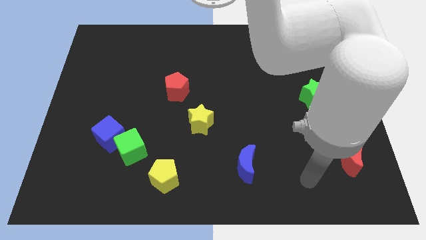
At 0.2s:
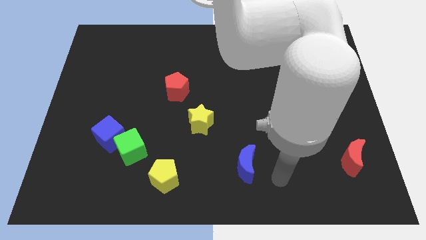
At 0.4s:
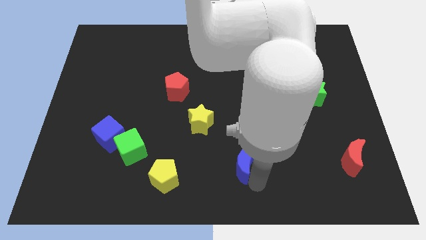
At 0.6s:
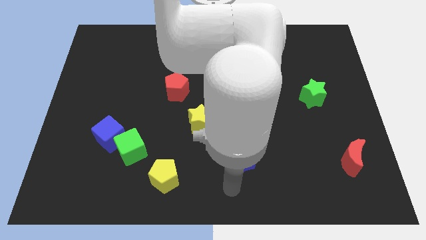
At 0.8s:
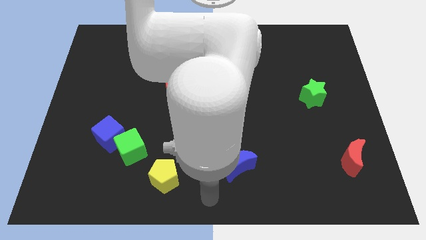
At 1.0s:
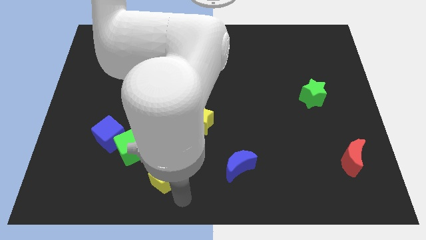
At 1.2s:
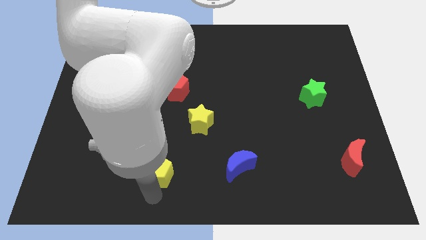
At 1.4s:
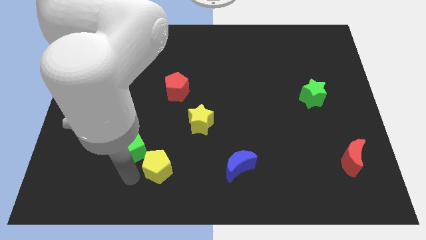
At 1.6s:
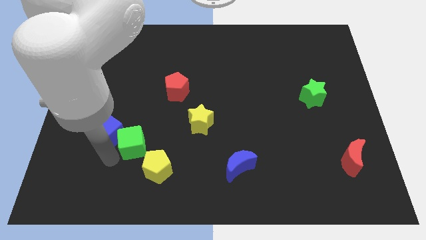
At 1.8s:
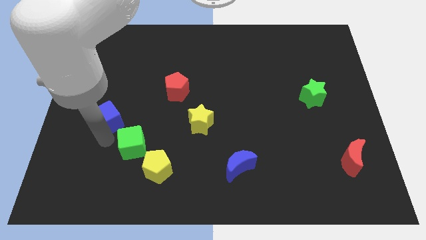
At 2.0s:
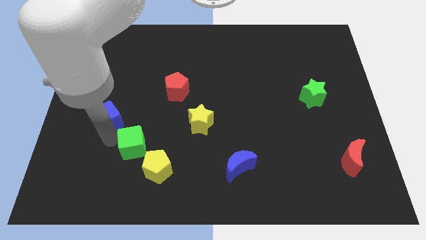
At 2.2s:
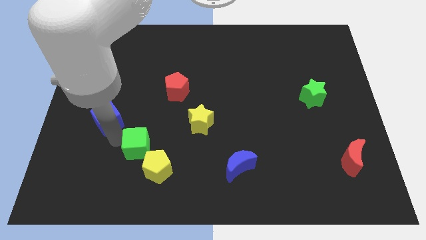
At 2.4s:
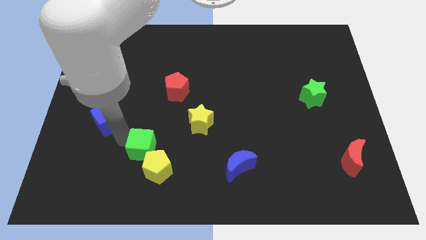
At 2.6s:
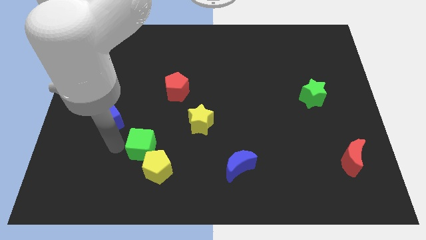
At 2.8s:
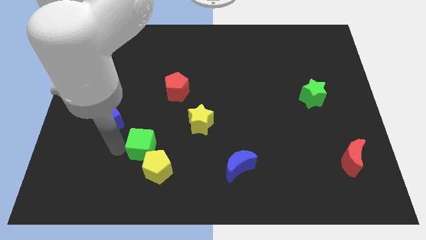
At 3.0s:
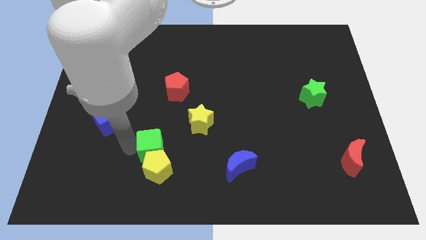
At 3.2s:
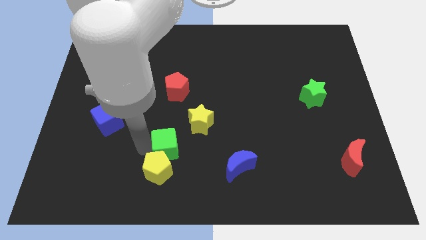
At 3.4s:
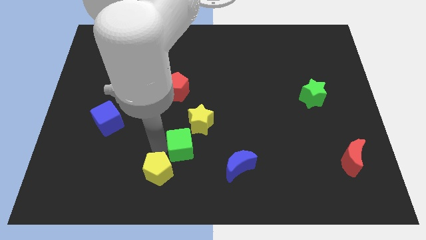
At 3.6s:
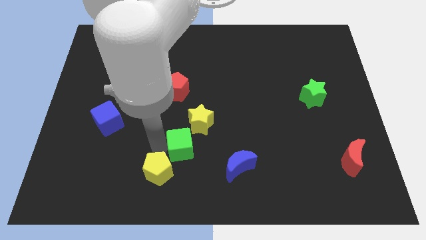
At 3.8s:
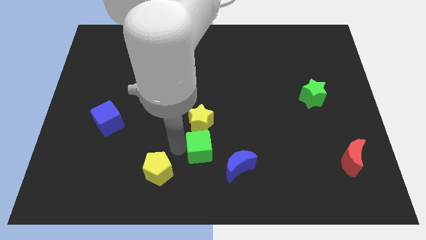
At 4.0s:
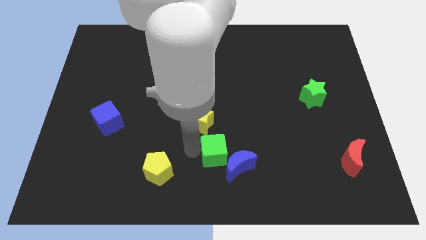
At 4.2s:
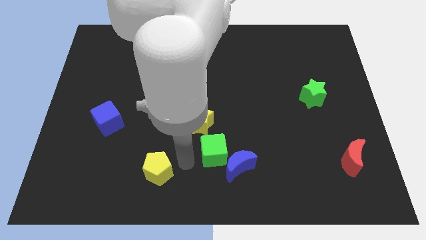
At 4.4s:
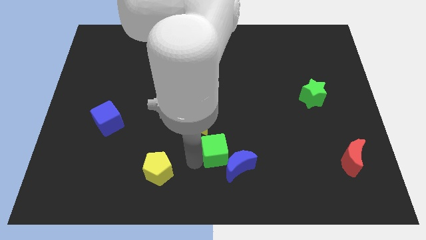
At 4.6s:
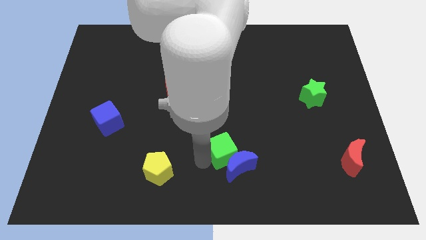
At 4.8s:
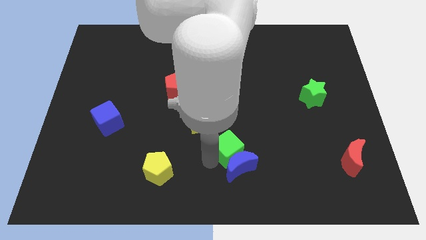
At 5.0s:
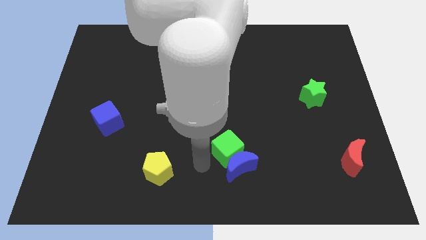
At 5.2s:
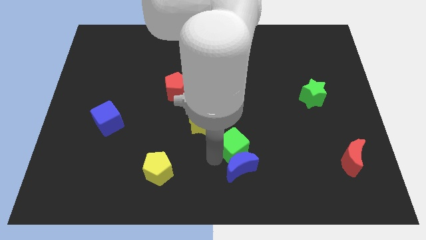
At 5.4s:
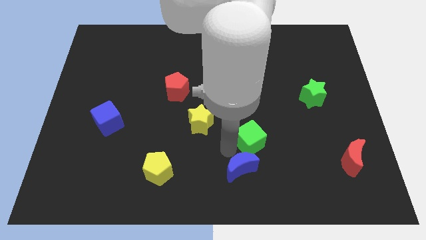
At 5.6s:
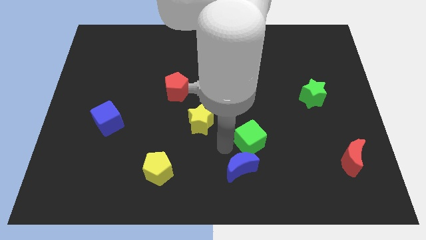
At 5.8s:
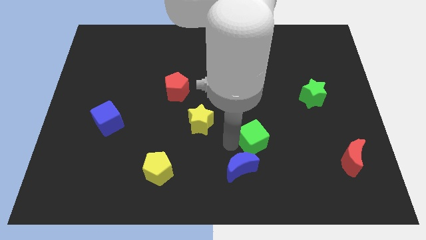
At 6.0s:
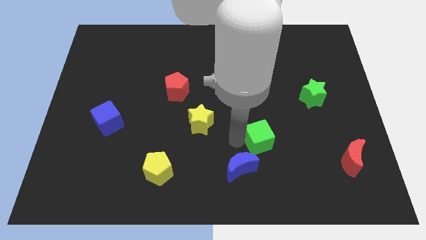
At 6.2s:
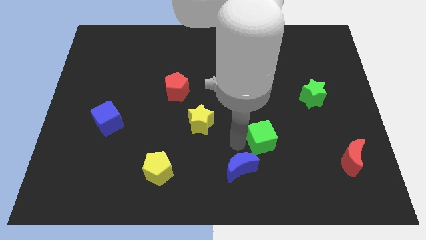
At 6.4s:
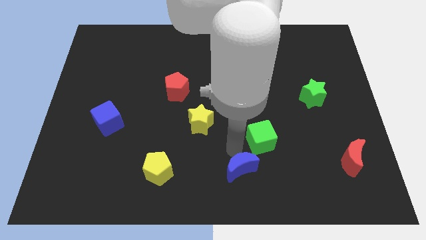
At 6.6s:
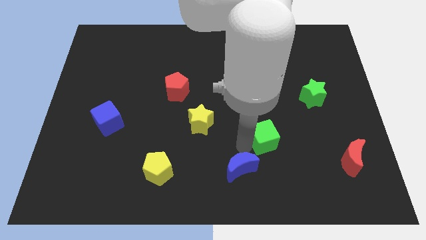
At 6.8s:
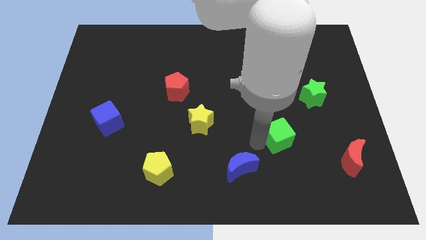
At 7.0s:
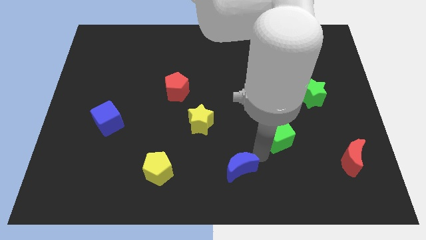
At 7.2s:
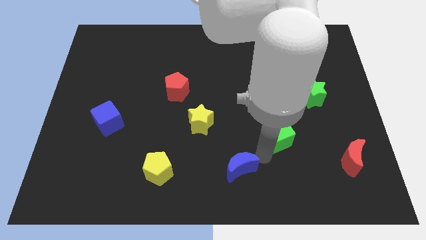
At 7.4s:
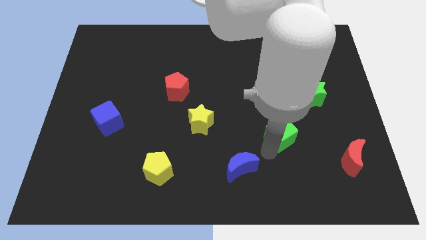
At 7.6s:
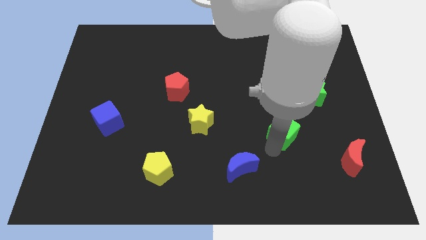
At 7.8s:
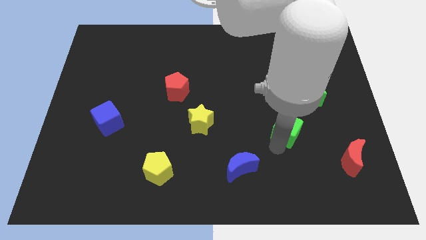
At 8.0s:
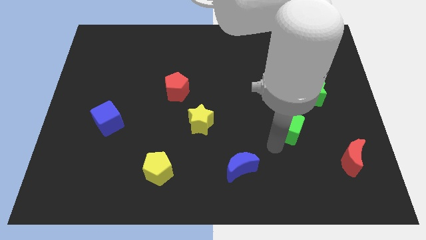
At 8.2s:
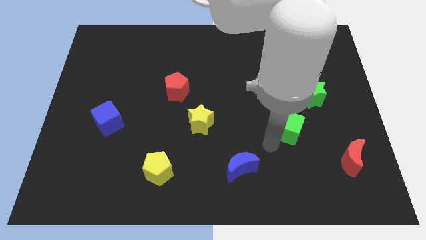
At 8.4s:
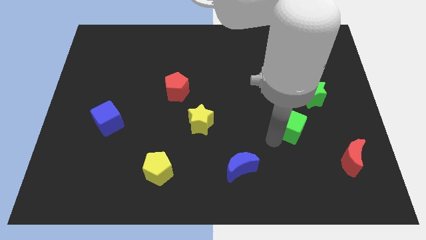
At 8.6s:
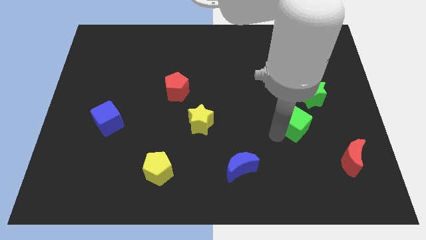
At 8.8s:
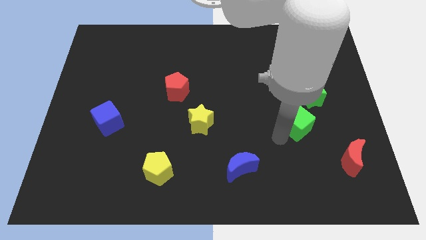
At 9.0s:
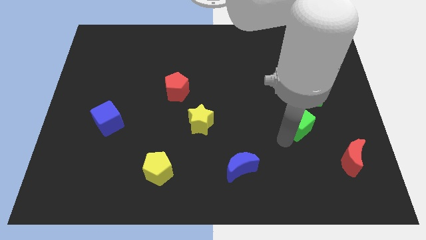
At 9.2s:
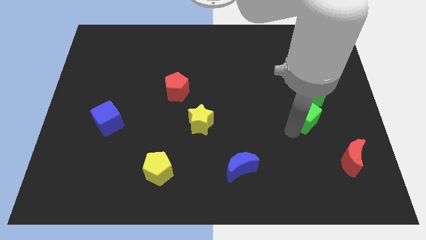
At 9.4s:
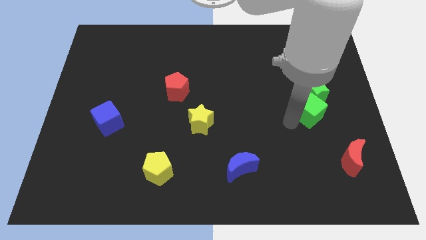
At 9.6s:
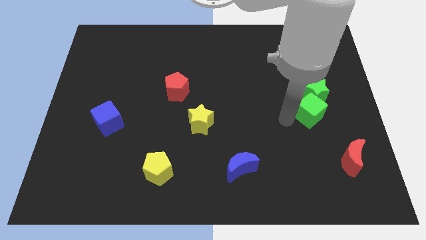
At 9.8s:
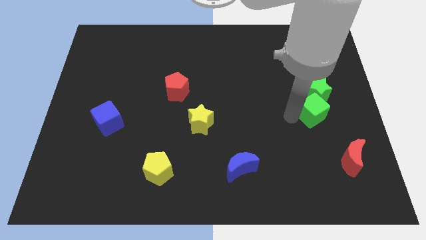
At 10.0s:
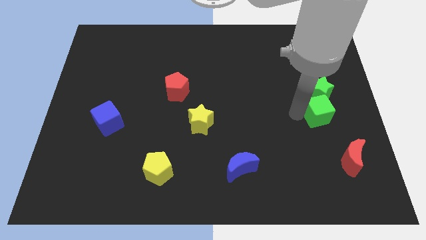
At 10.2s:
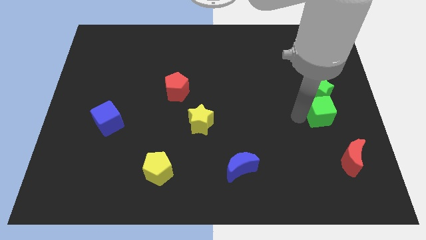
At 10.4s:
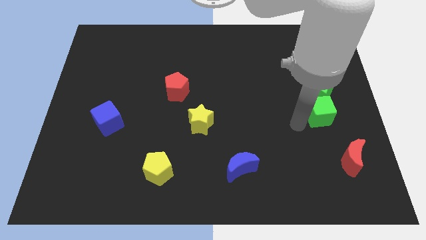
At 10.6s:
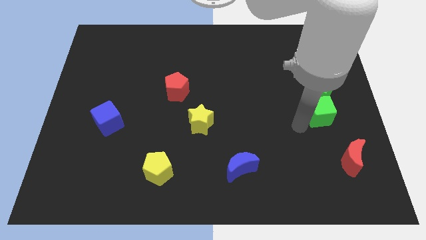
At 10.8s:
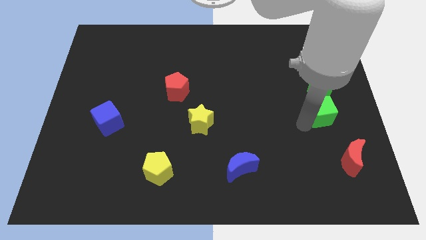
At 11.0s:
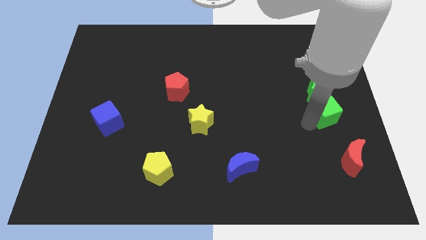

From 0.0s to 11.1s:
push the green cube to the right side of the board

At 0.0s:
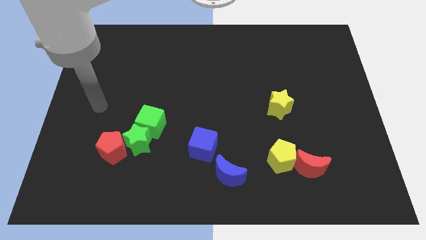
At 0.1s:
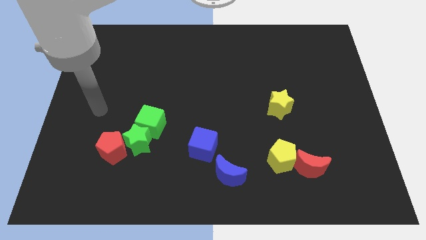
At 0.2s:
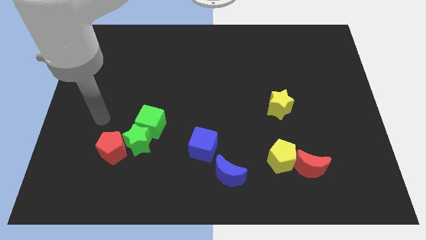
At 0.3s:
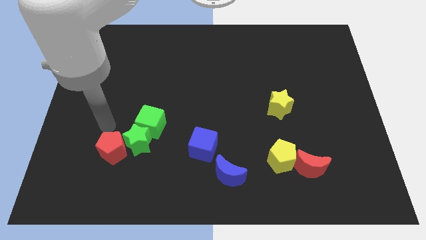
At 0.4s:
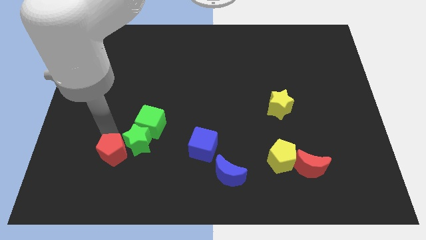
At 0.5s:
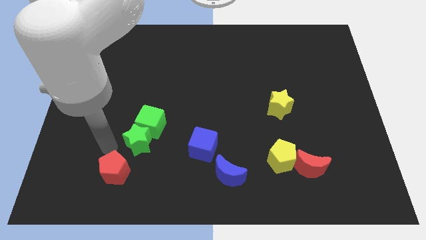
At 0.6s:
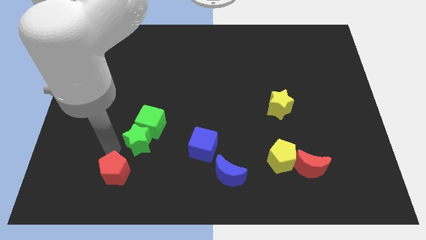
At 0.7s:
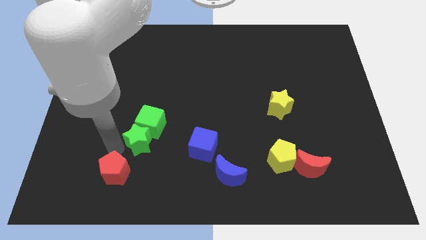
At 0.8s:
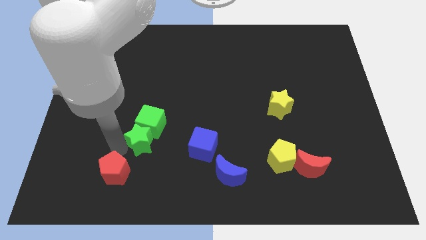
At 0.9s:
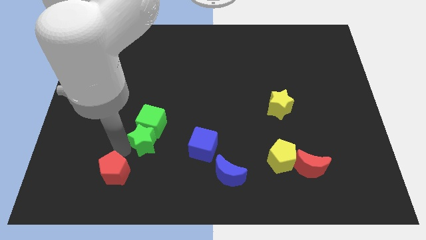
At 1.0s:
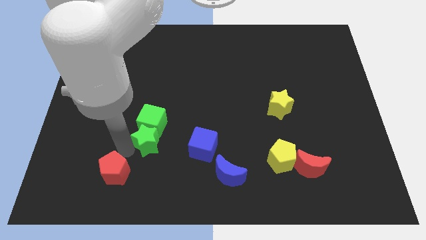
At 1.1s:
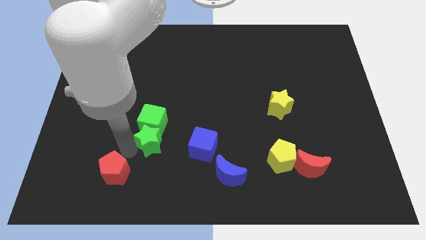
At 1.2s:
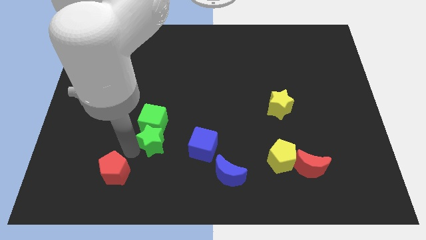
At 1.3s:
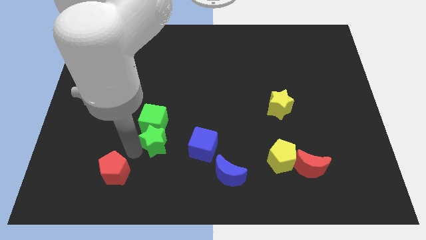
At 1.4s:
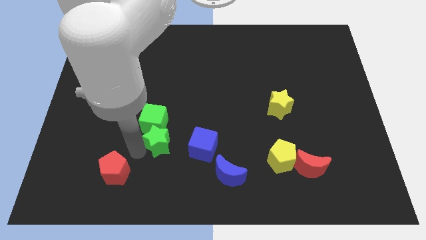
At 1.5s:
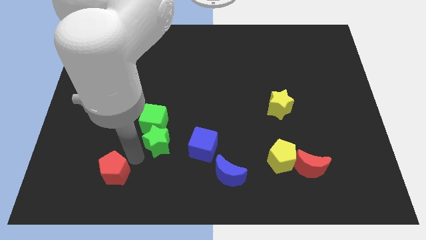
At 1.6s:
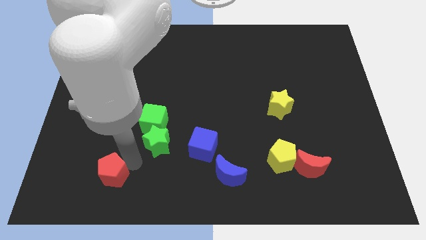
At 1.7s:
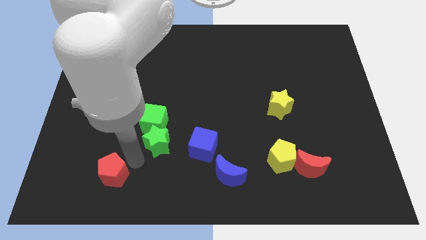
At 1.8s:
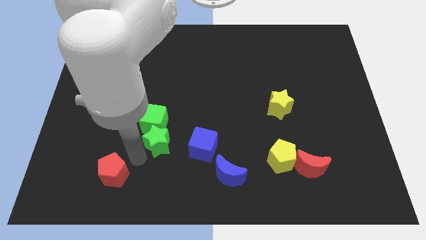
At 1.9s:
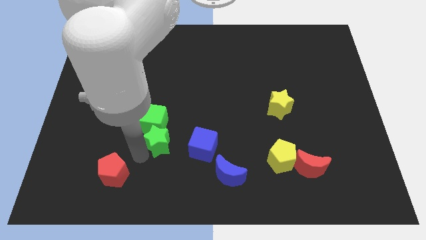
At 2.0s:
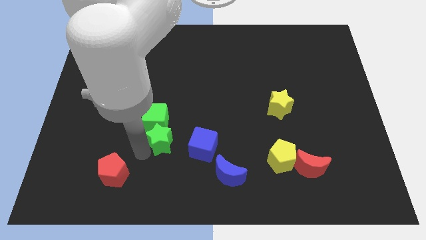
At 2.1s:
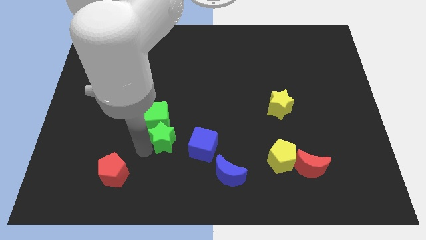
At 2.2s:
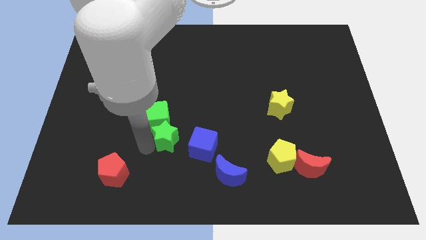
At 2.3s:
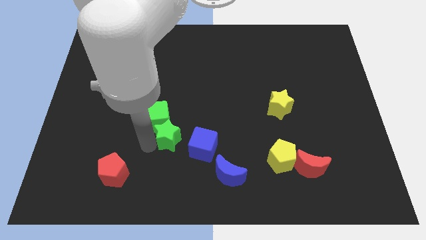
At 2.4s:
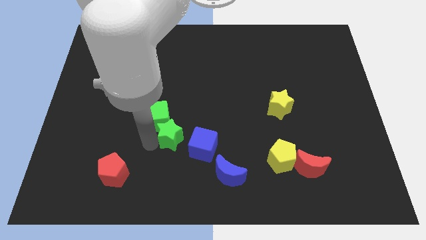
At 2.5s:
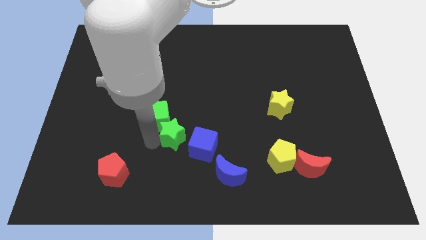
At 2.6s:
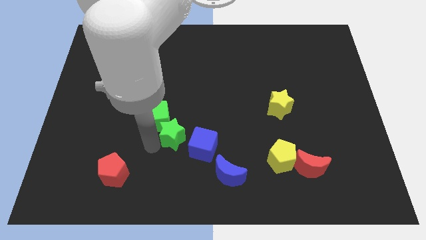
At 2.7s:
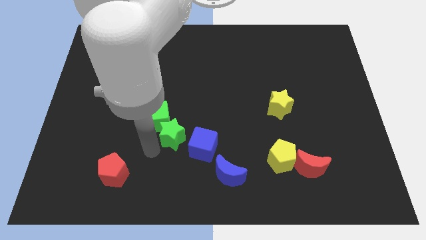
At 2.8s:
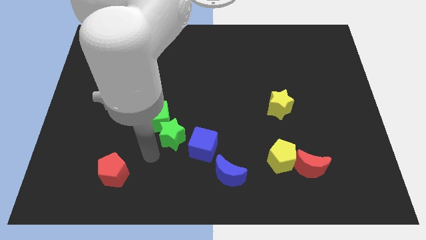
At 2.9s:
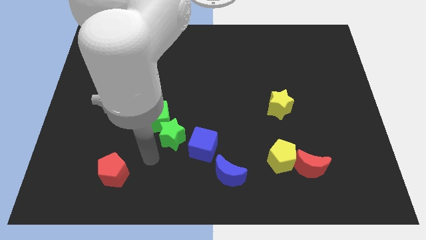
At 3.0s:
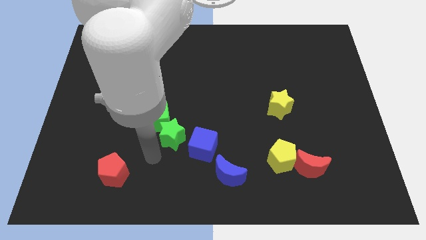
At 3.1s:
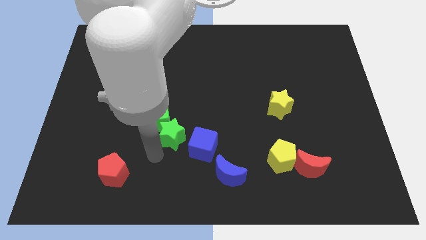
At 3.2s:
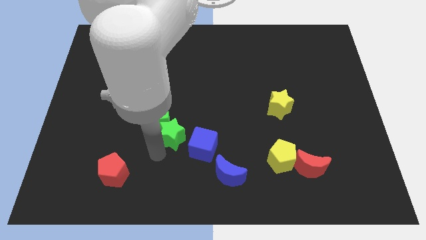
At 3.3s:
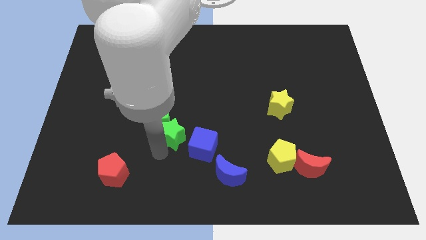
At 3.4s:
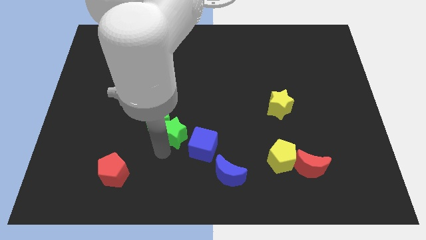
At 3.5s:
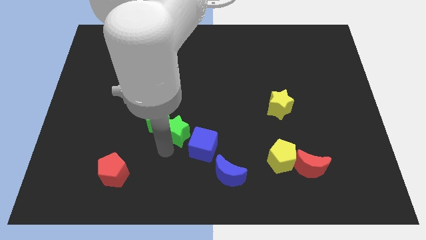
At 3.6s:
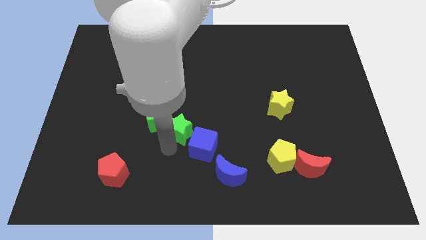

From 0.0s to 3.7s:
put the green star to the middle of the board
